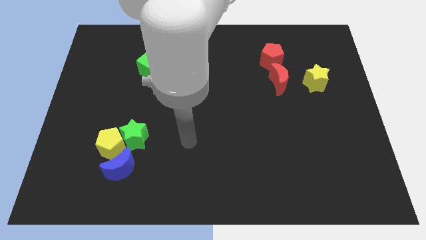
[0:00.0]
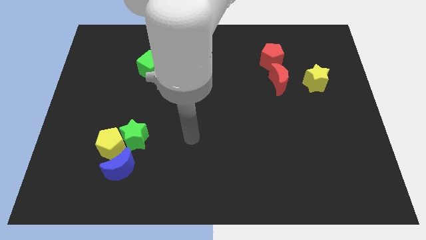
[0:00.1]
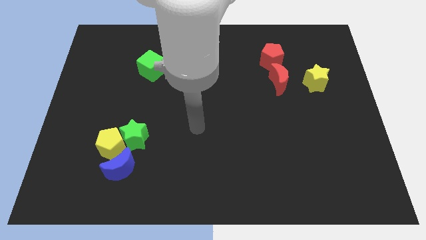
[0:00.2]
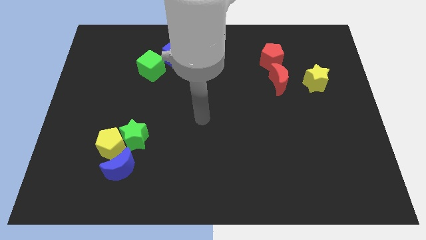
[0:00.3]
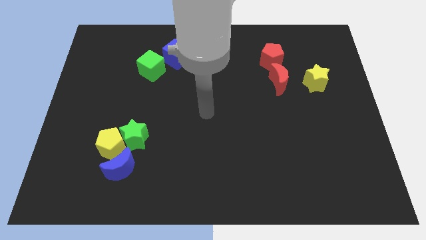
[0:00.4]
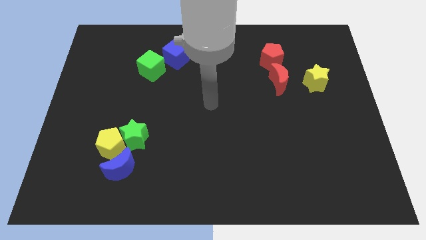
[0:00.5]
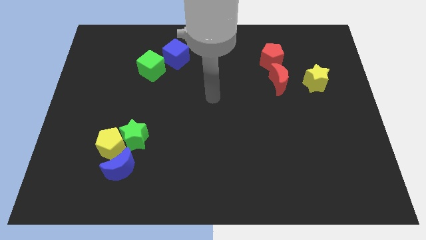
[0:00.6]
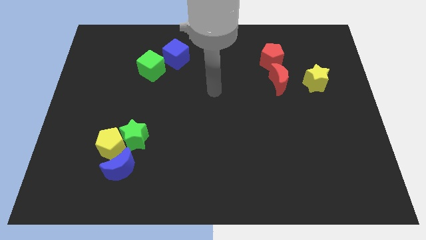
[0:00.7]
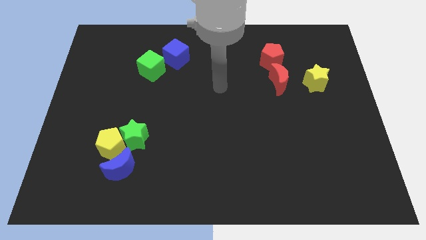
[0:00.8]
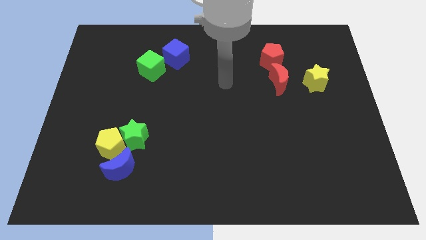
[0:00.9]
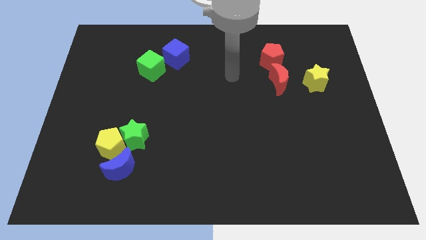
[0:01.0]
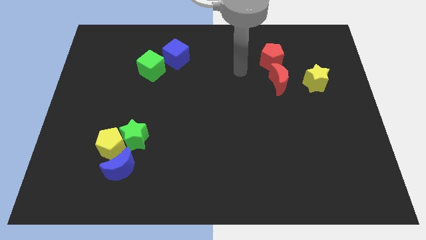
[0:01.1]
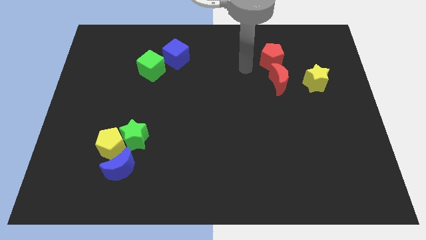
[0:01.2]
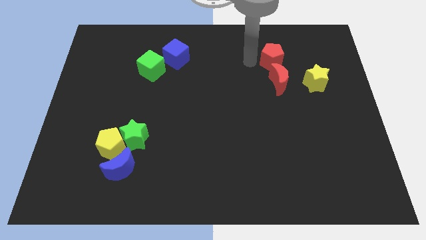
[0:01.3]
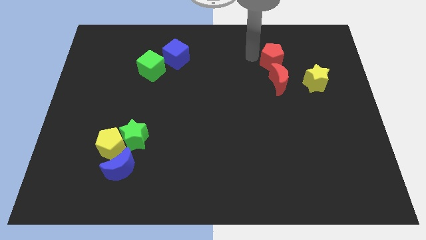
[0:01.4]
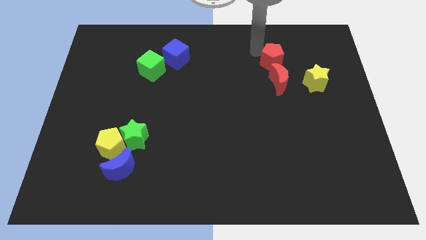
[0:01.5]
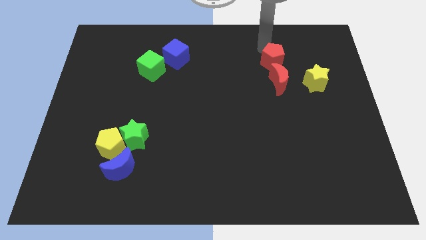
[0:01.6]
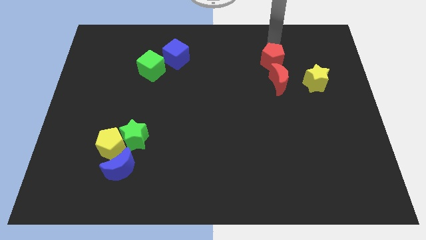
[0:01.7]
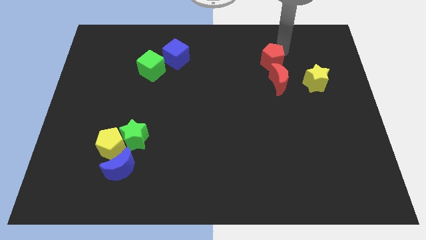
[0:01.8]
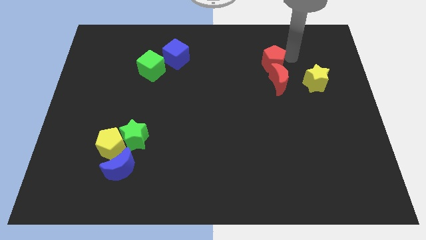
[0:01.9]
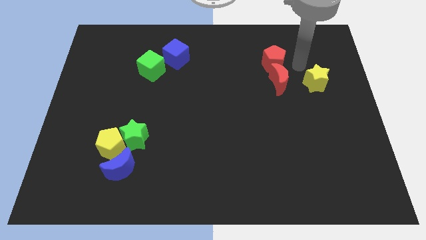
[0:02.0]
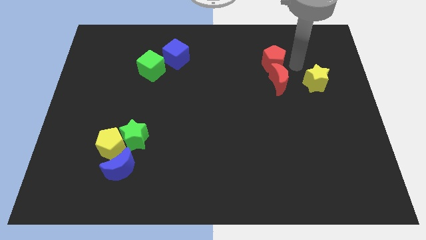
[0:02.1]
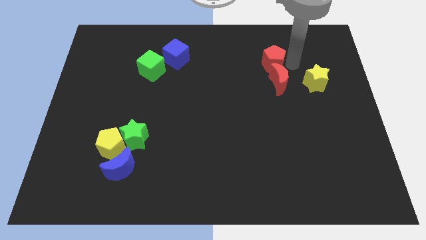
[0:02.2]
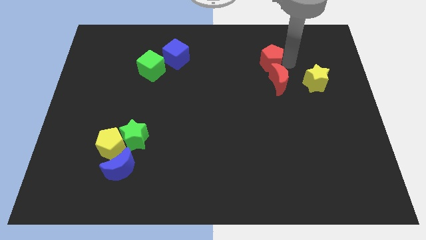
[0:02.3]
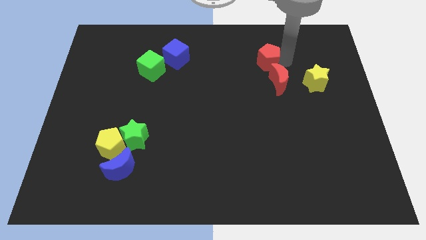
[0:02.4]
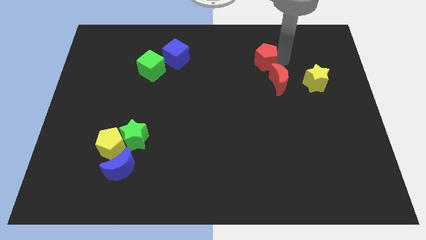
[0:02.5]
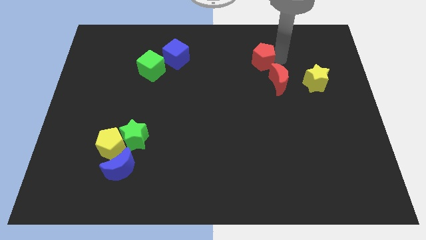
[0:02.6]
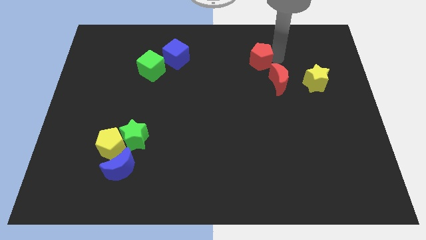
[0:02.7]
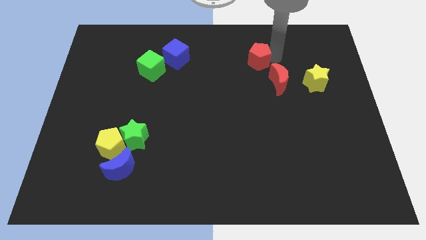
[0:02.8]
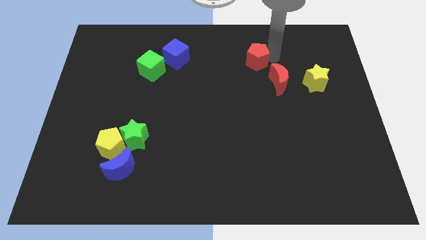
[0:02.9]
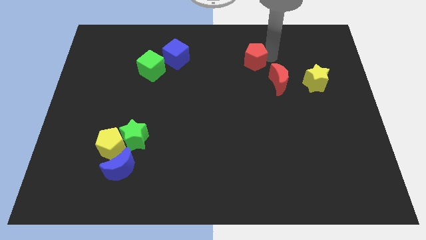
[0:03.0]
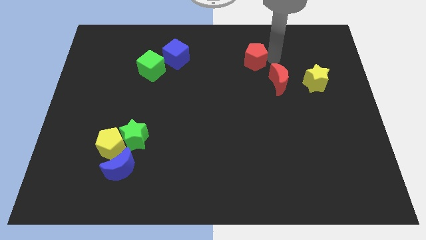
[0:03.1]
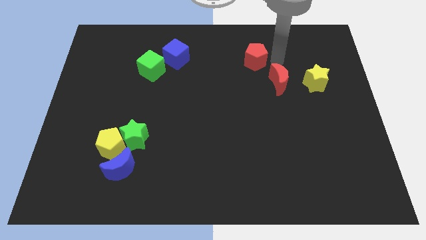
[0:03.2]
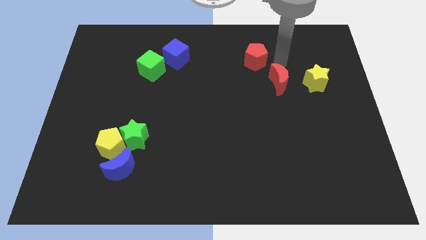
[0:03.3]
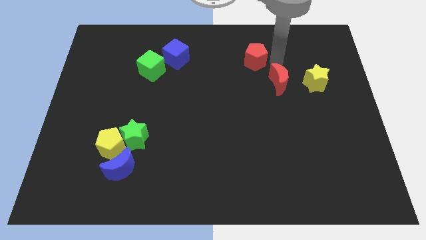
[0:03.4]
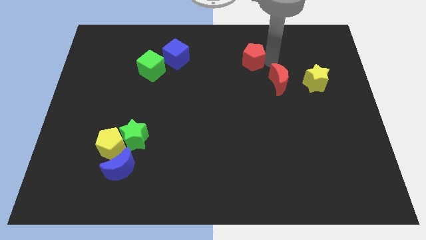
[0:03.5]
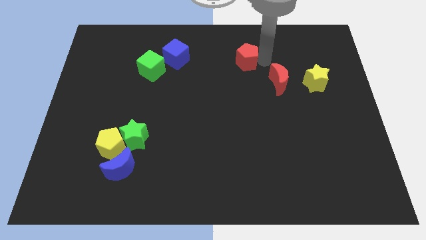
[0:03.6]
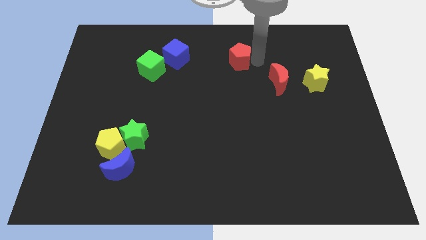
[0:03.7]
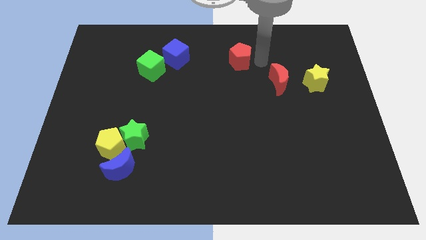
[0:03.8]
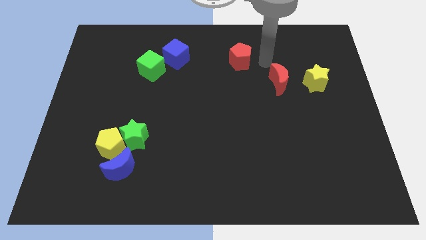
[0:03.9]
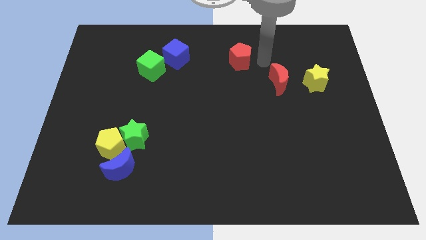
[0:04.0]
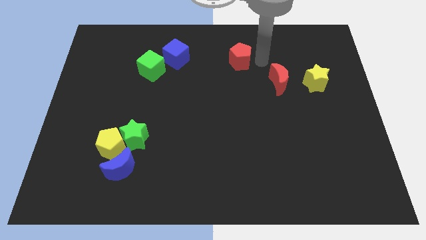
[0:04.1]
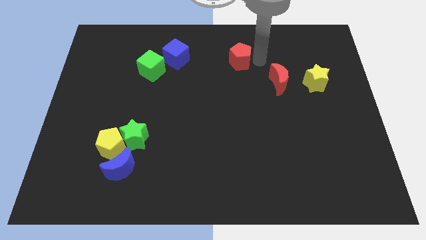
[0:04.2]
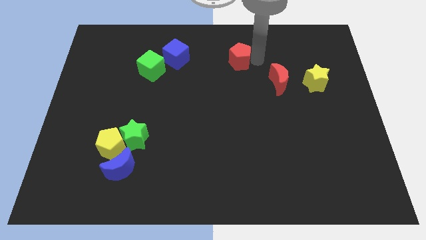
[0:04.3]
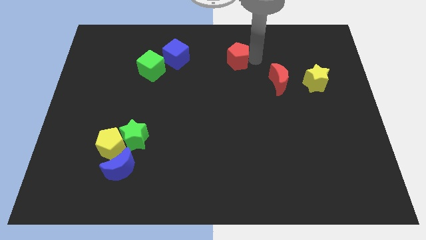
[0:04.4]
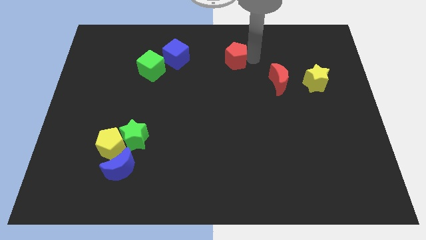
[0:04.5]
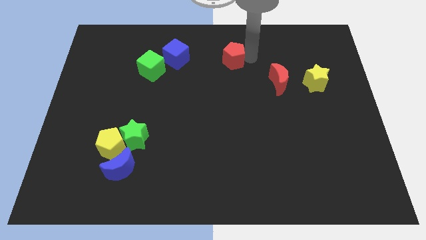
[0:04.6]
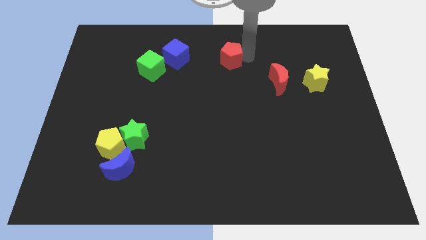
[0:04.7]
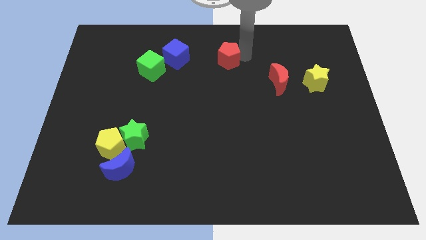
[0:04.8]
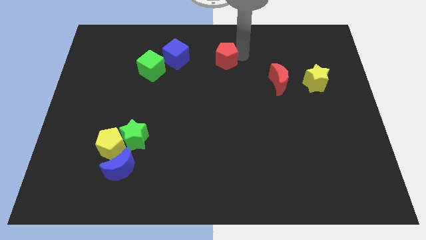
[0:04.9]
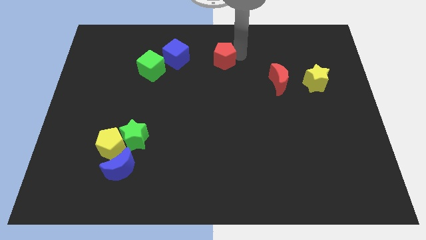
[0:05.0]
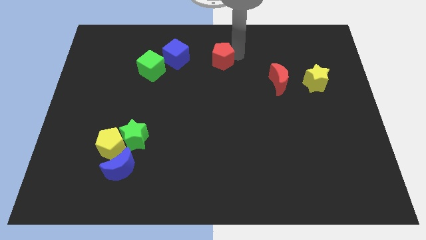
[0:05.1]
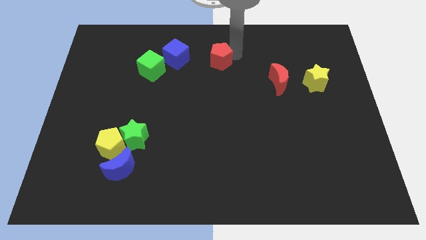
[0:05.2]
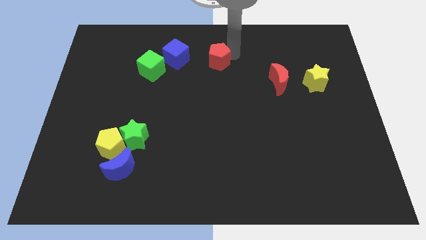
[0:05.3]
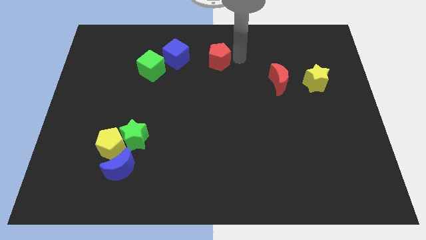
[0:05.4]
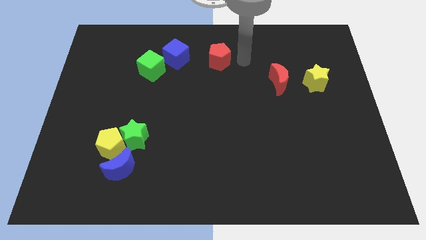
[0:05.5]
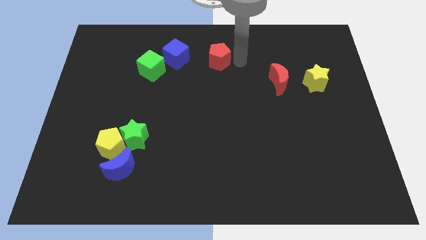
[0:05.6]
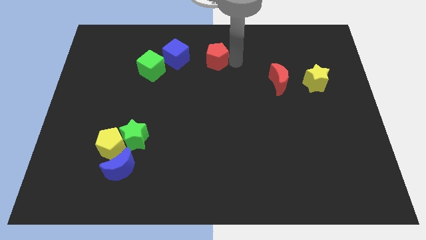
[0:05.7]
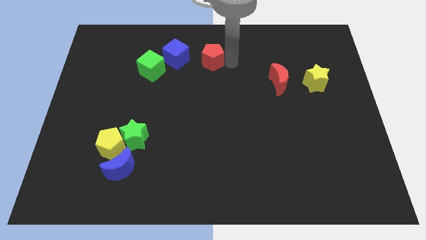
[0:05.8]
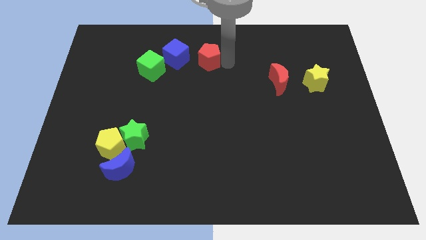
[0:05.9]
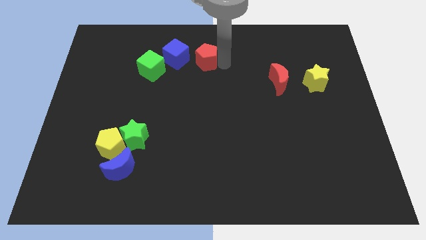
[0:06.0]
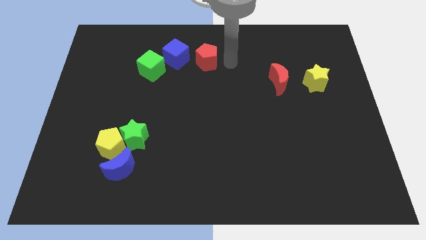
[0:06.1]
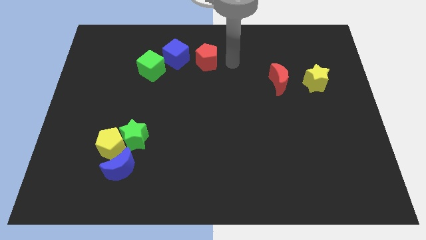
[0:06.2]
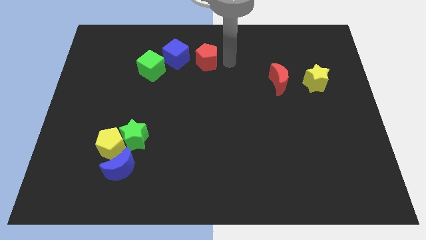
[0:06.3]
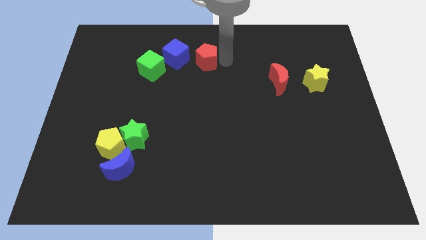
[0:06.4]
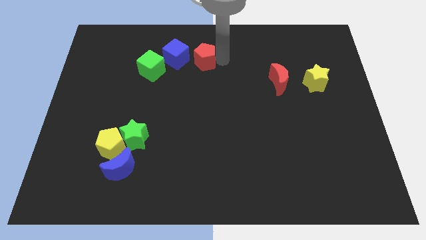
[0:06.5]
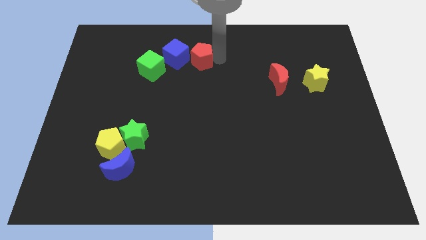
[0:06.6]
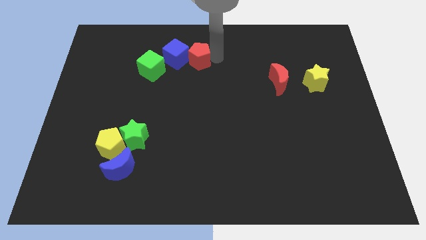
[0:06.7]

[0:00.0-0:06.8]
push the red pentagon towards the blue cube
